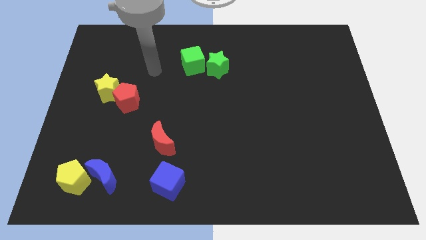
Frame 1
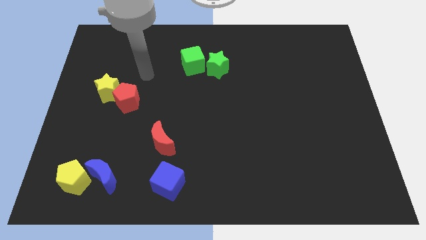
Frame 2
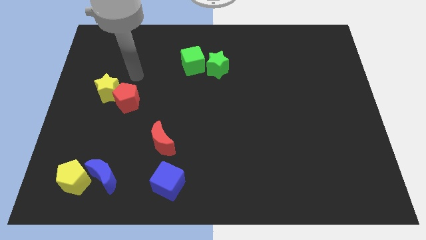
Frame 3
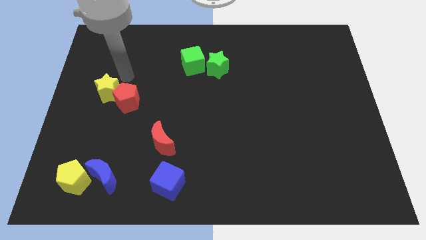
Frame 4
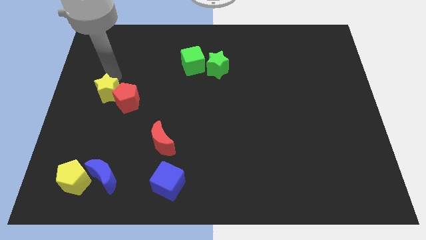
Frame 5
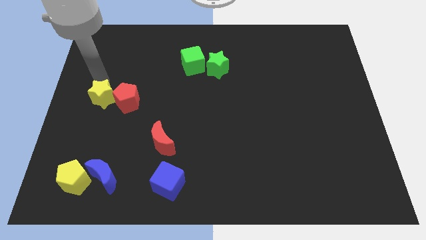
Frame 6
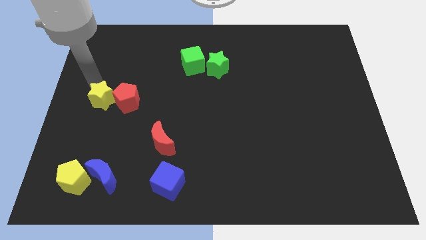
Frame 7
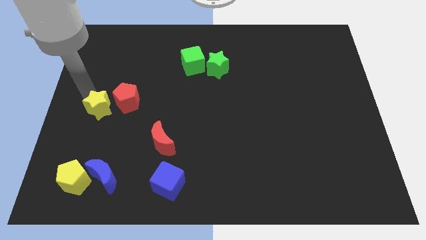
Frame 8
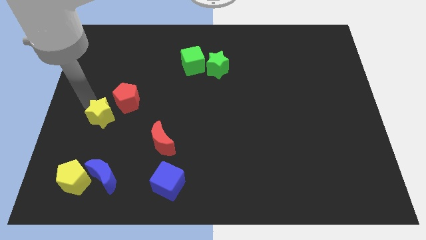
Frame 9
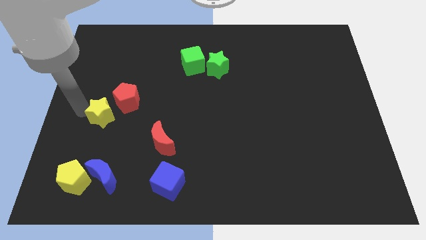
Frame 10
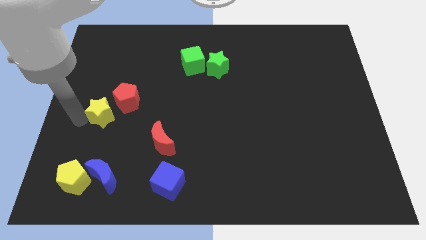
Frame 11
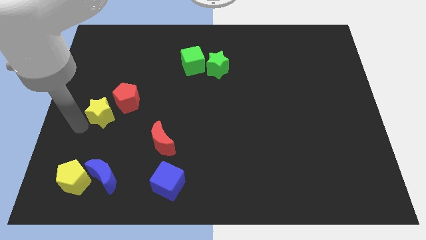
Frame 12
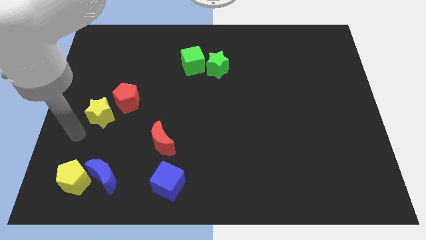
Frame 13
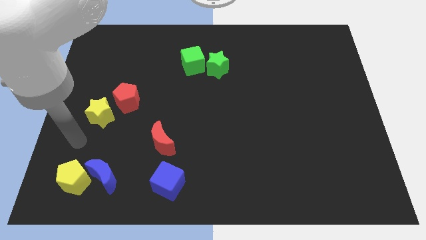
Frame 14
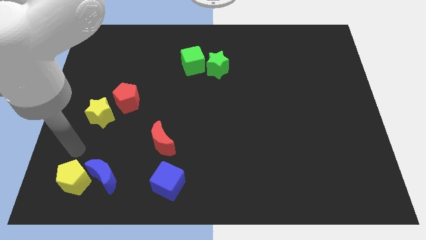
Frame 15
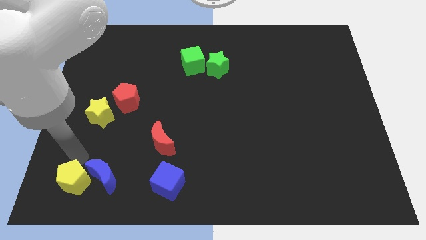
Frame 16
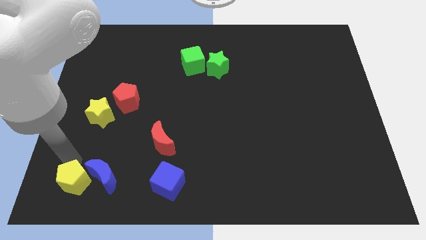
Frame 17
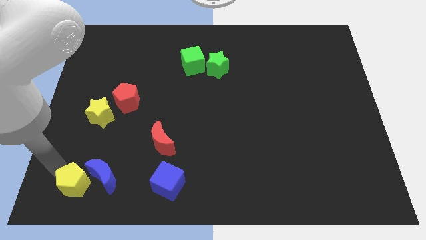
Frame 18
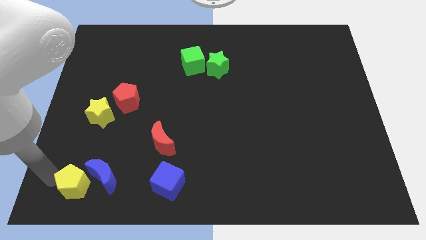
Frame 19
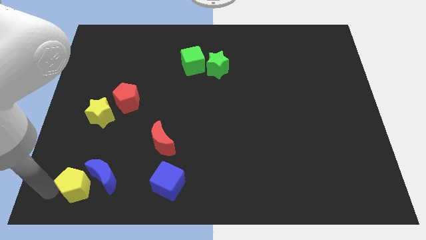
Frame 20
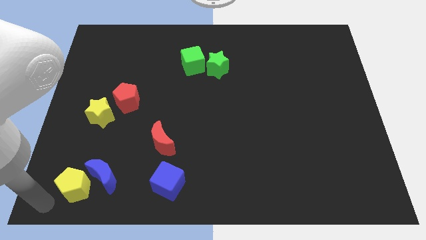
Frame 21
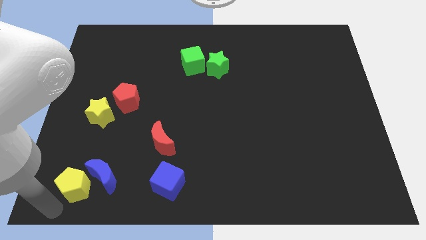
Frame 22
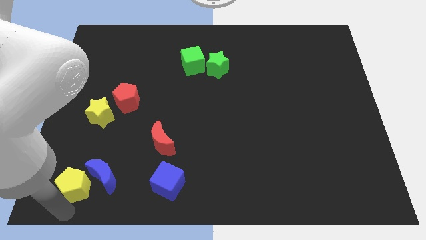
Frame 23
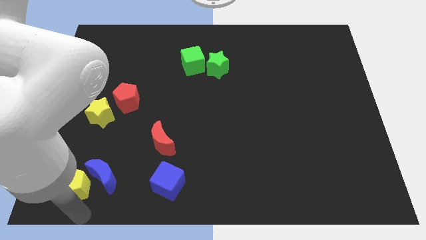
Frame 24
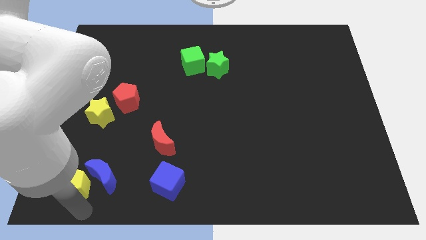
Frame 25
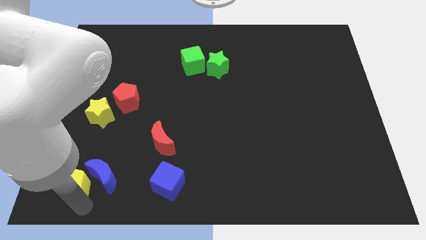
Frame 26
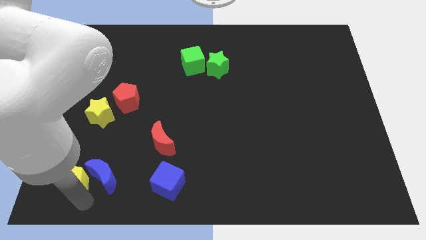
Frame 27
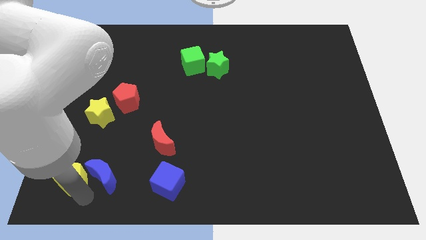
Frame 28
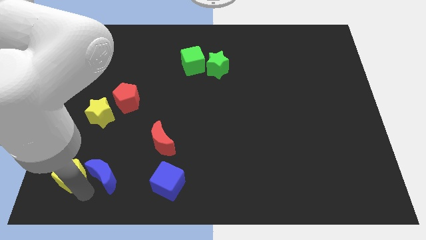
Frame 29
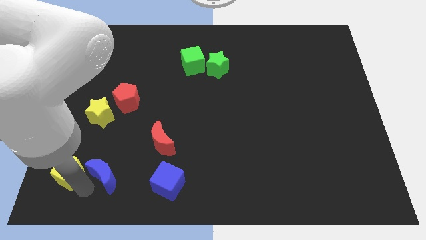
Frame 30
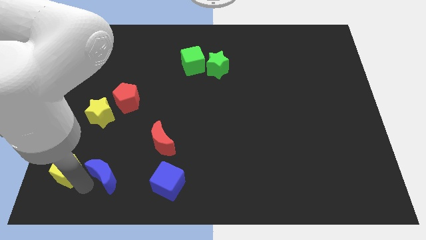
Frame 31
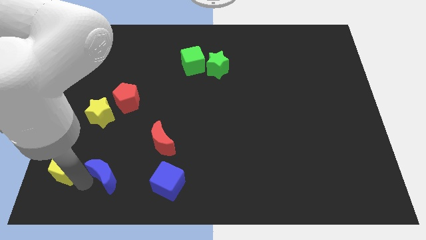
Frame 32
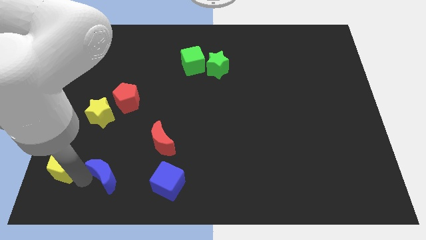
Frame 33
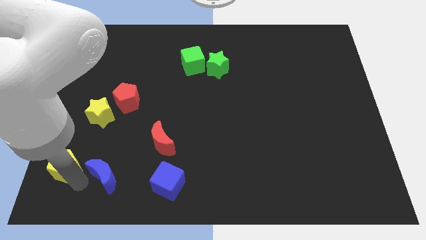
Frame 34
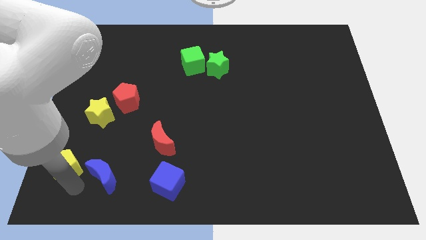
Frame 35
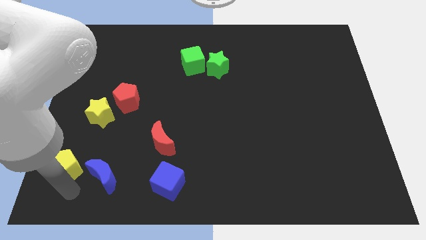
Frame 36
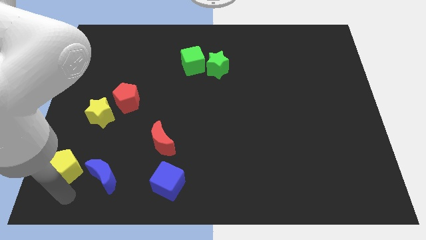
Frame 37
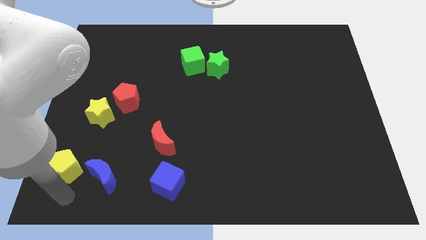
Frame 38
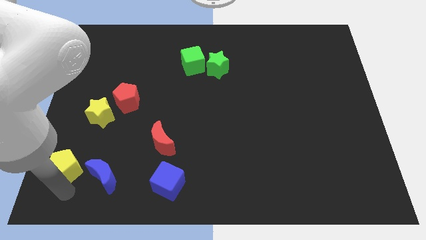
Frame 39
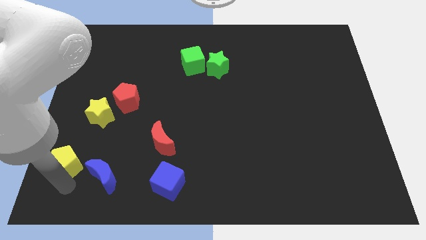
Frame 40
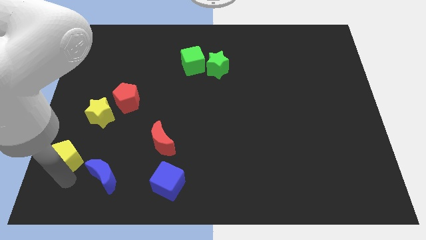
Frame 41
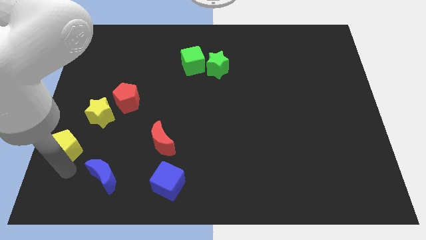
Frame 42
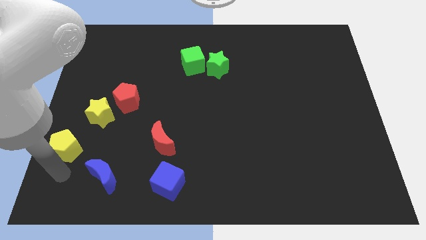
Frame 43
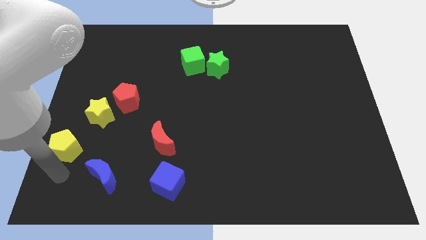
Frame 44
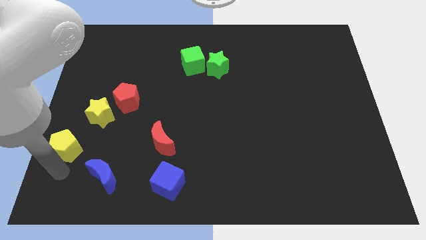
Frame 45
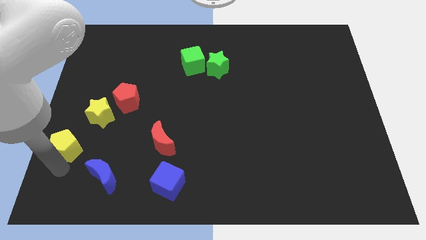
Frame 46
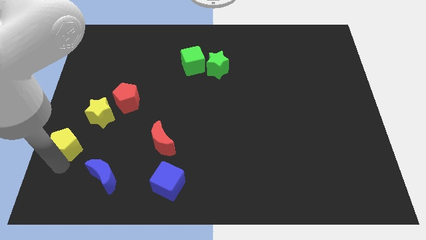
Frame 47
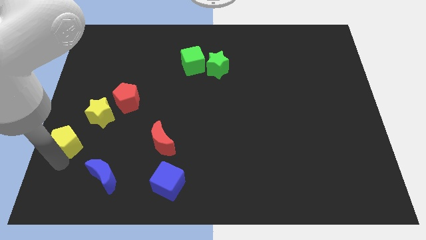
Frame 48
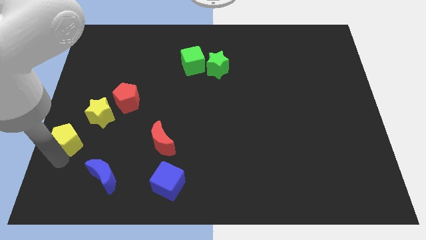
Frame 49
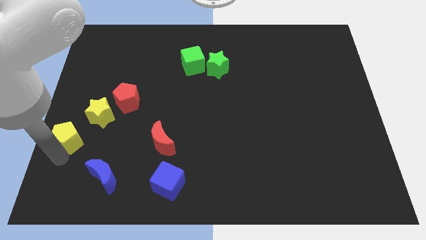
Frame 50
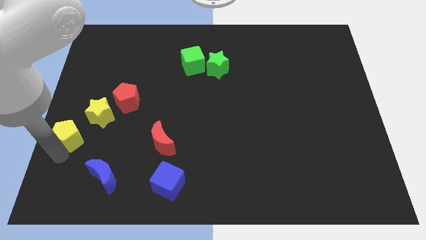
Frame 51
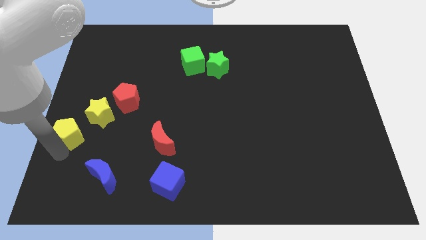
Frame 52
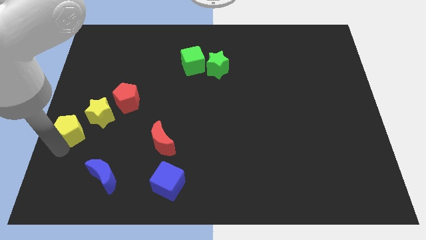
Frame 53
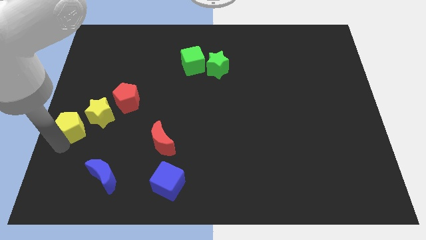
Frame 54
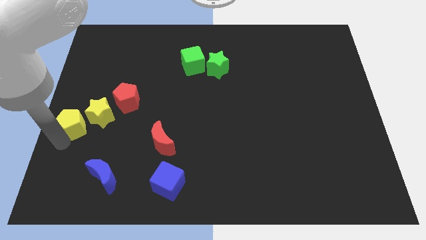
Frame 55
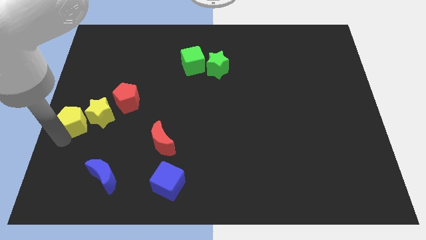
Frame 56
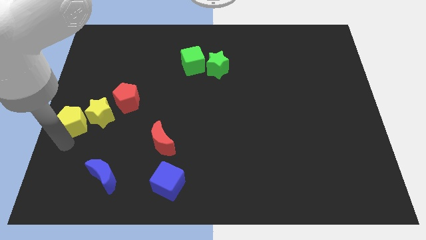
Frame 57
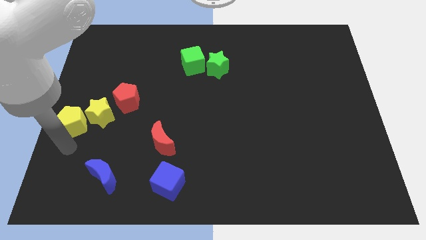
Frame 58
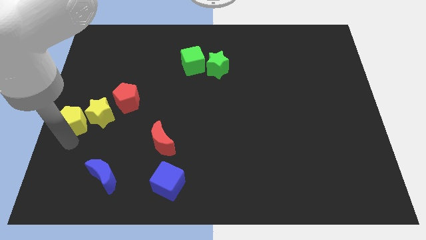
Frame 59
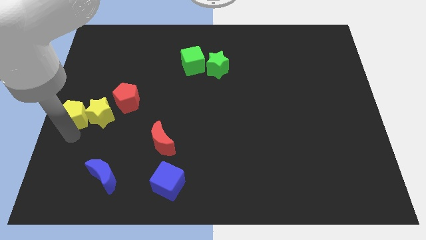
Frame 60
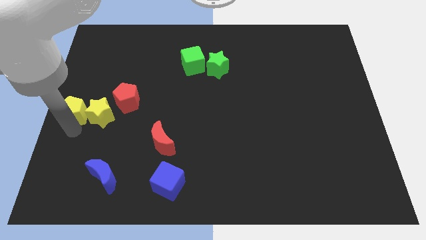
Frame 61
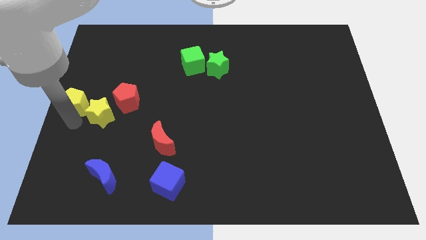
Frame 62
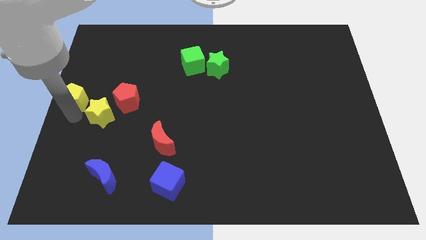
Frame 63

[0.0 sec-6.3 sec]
move the yellow pentagon upwards

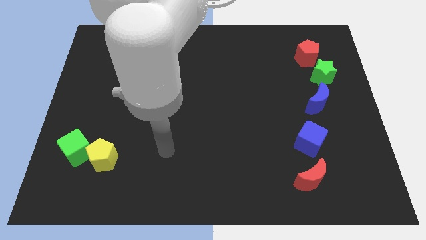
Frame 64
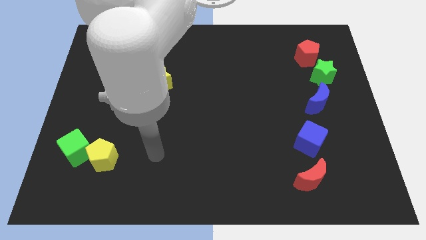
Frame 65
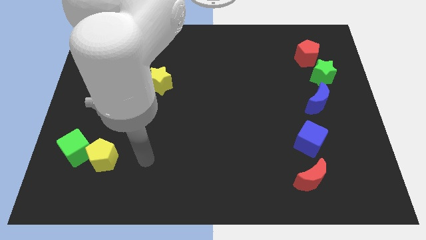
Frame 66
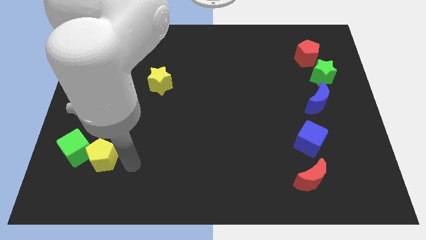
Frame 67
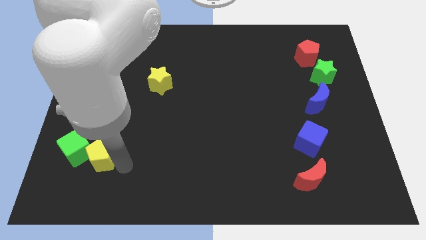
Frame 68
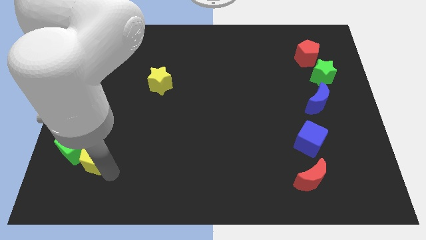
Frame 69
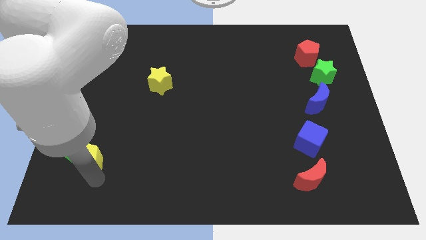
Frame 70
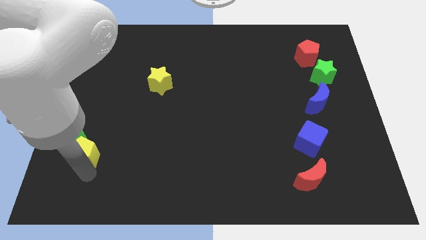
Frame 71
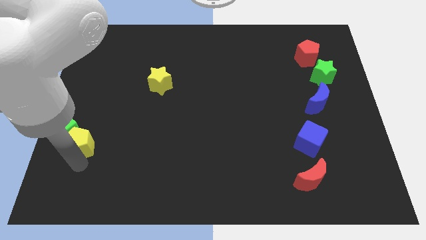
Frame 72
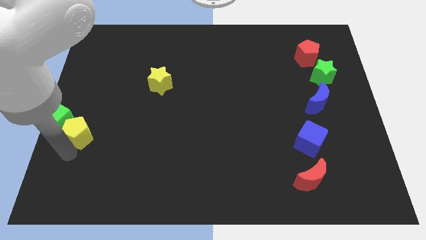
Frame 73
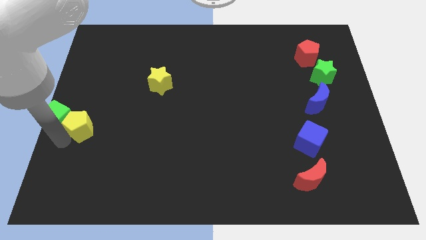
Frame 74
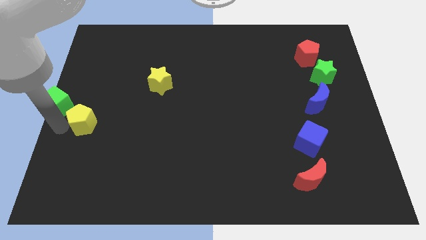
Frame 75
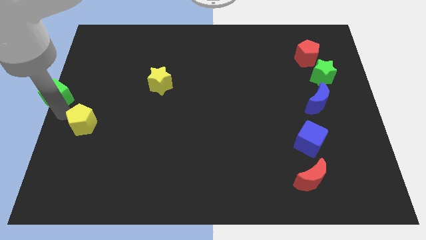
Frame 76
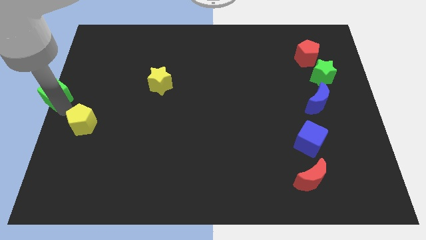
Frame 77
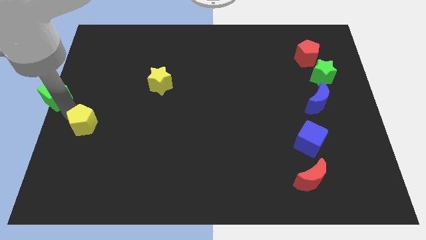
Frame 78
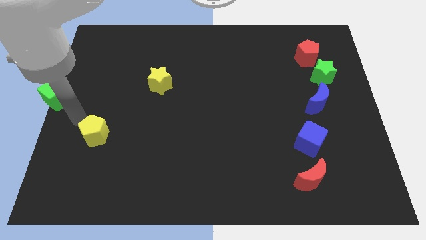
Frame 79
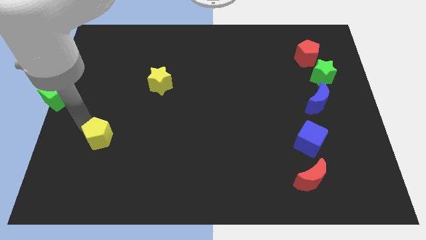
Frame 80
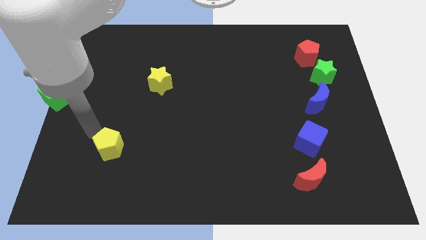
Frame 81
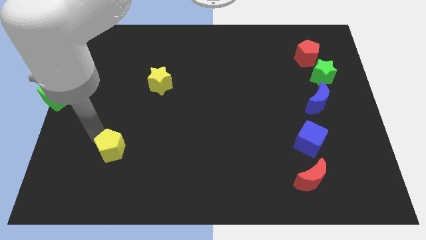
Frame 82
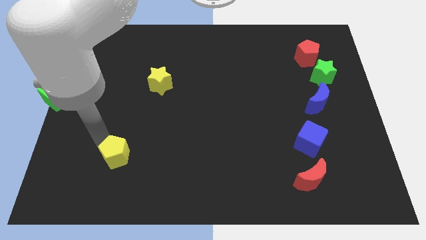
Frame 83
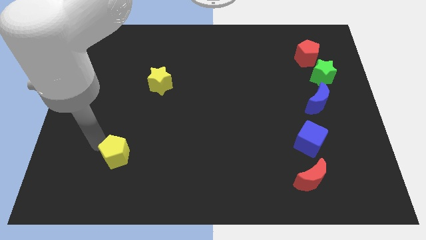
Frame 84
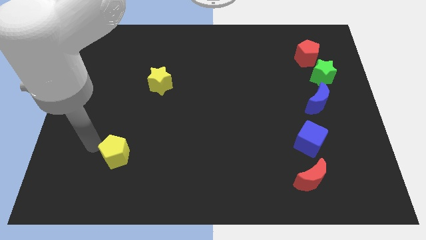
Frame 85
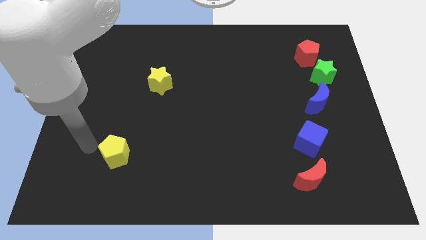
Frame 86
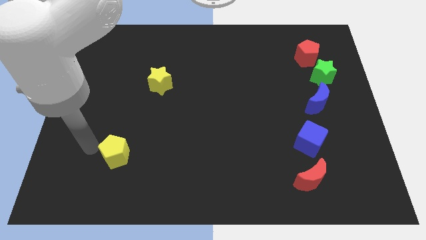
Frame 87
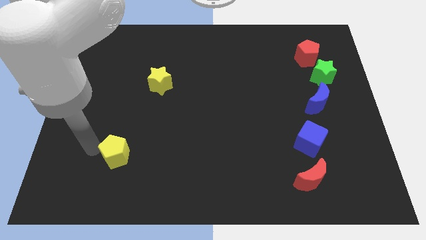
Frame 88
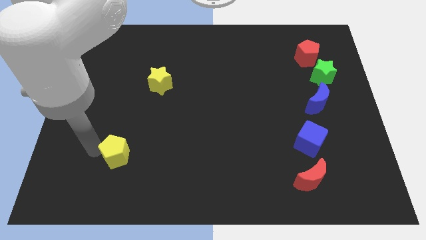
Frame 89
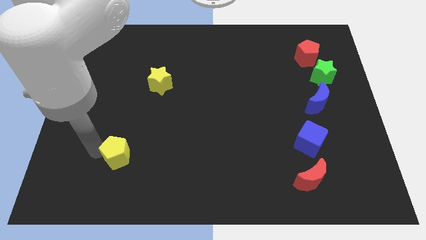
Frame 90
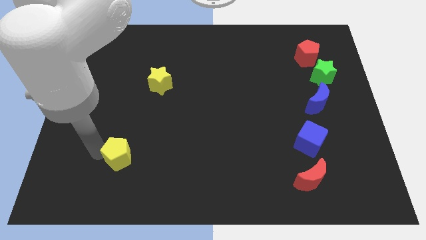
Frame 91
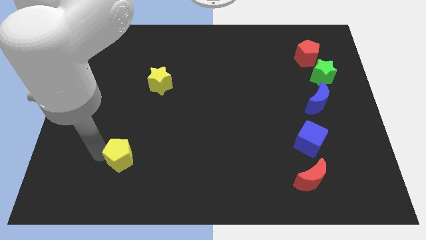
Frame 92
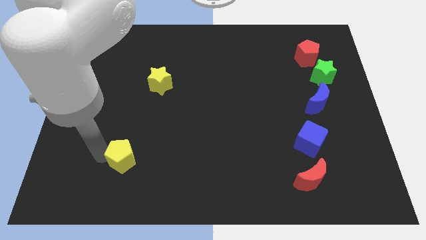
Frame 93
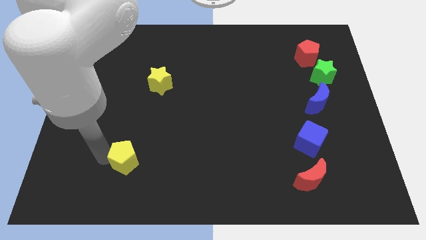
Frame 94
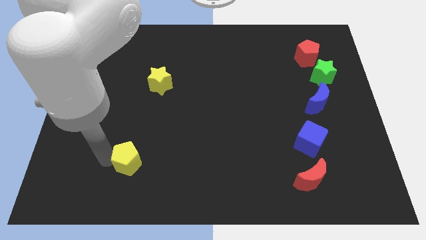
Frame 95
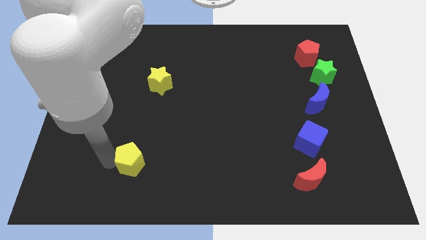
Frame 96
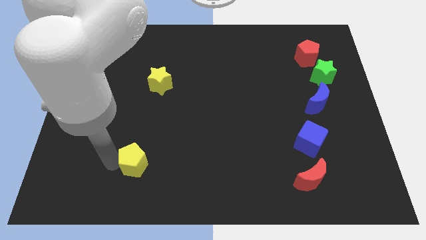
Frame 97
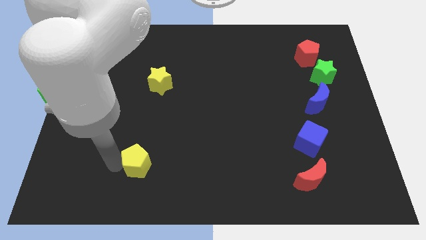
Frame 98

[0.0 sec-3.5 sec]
push the yellow pentagon a little bit right
